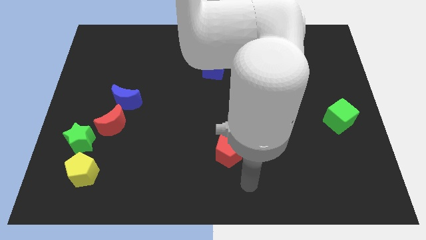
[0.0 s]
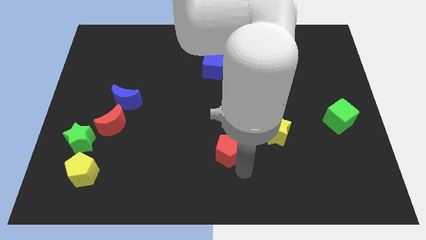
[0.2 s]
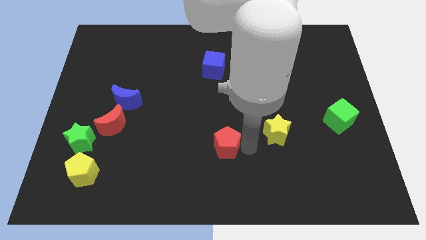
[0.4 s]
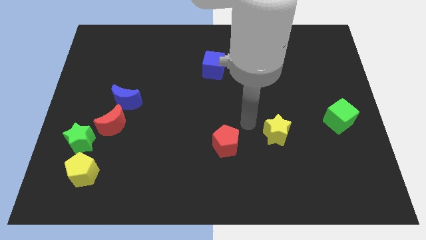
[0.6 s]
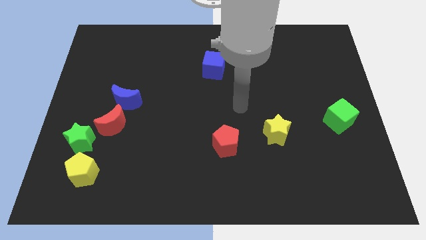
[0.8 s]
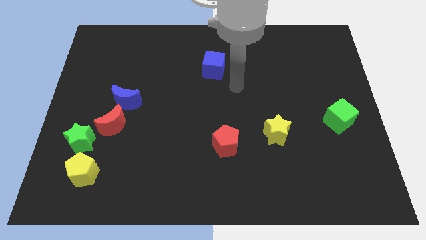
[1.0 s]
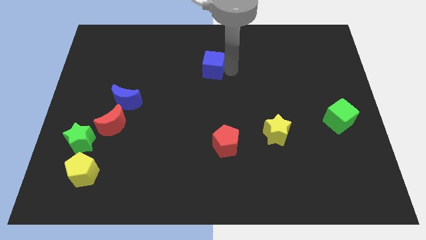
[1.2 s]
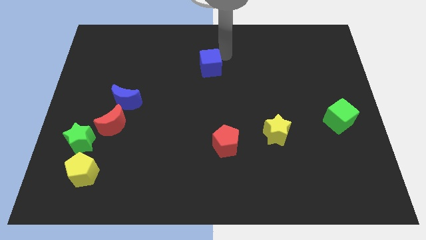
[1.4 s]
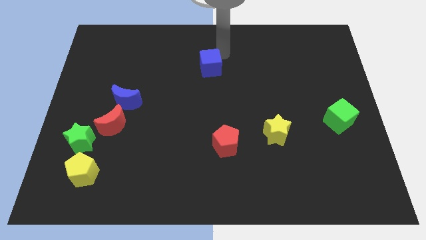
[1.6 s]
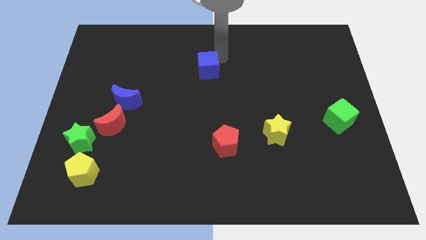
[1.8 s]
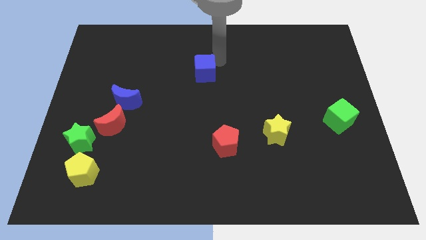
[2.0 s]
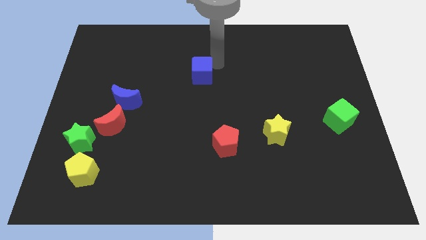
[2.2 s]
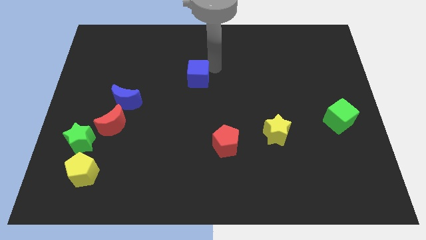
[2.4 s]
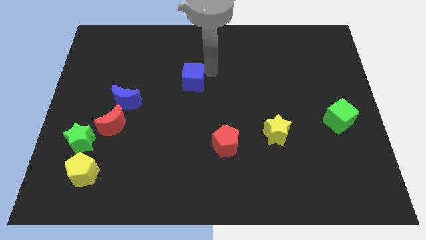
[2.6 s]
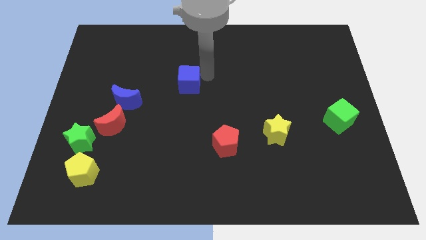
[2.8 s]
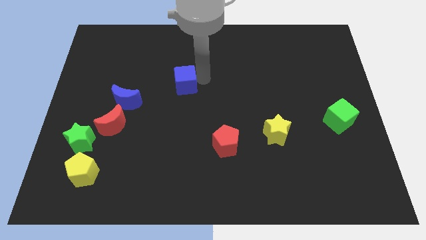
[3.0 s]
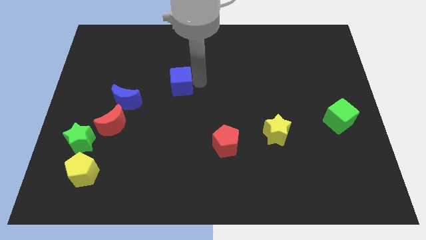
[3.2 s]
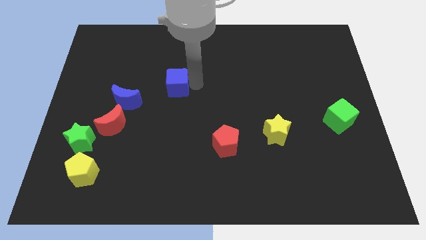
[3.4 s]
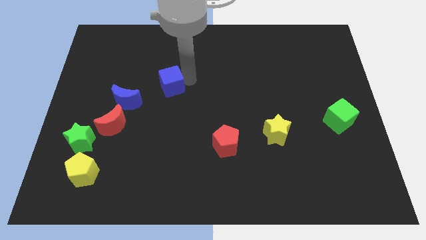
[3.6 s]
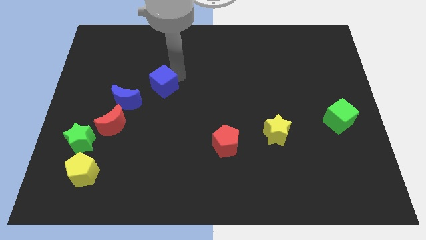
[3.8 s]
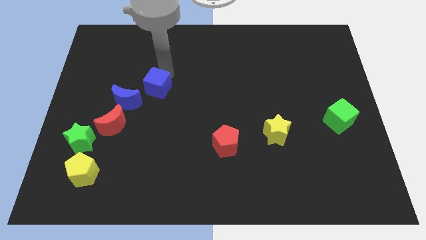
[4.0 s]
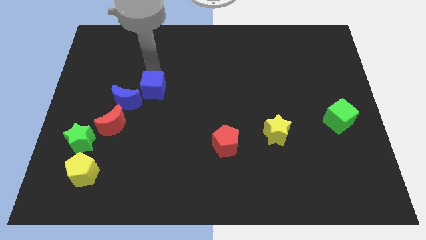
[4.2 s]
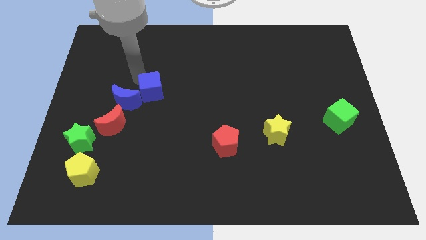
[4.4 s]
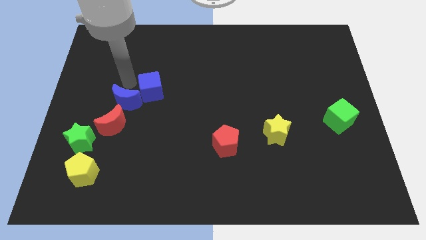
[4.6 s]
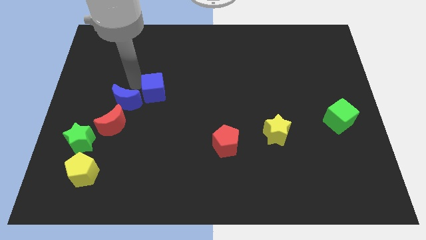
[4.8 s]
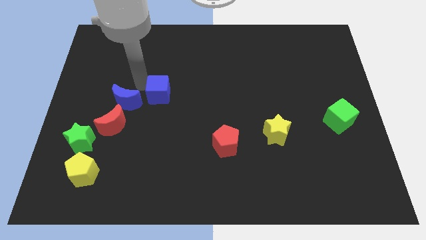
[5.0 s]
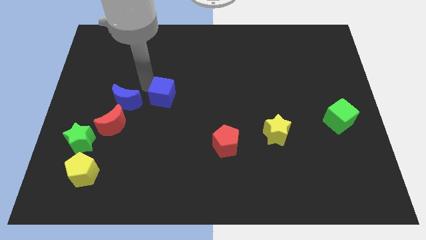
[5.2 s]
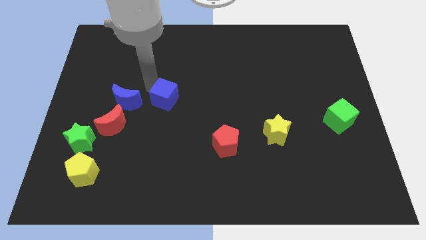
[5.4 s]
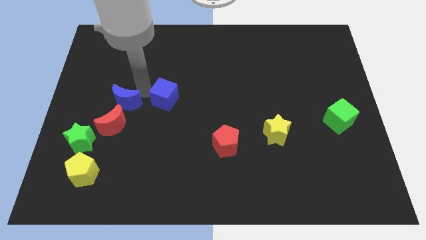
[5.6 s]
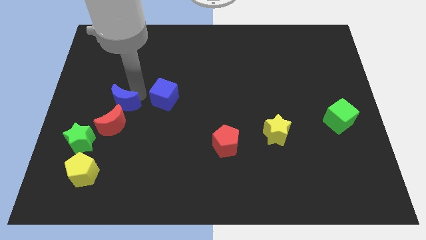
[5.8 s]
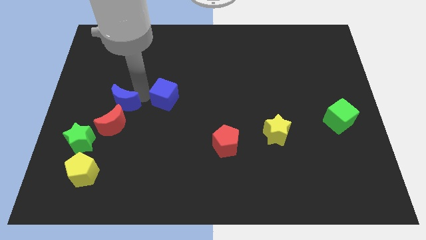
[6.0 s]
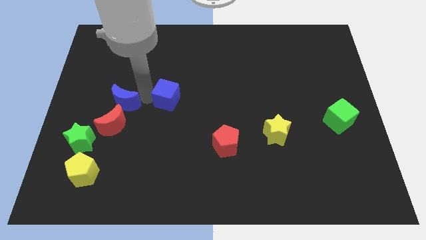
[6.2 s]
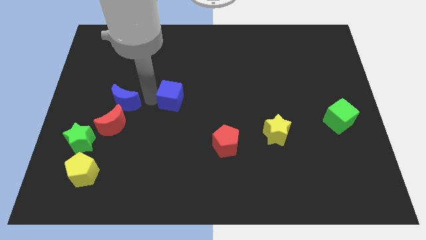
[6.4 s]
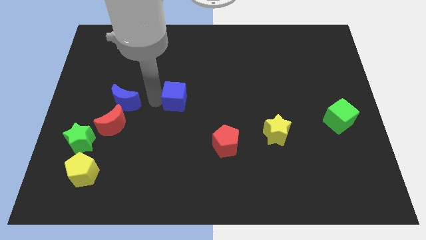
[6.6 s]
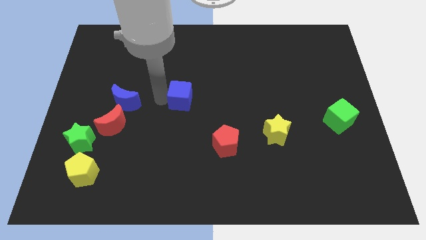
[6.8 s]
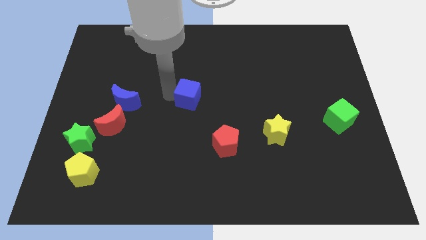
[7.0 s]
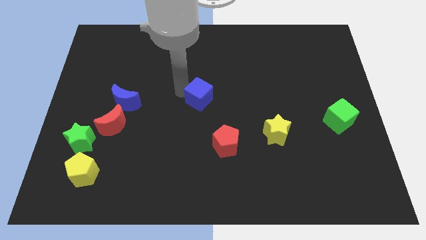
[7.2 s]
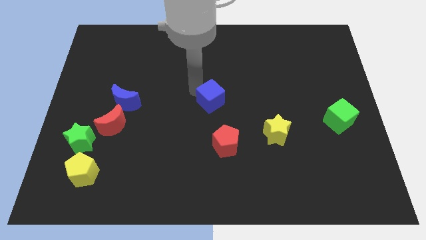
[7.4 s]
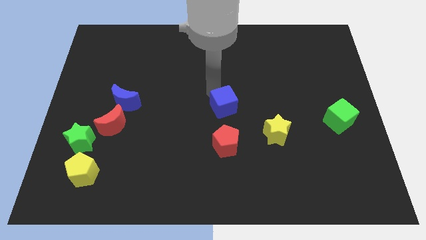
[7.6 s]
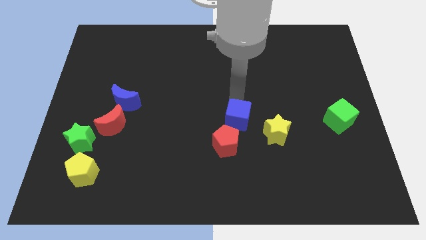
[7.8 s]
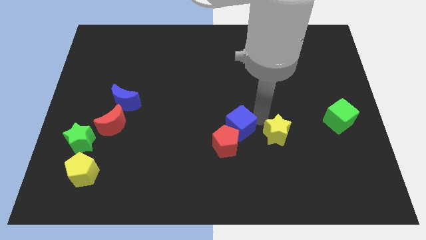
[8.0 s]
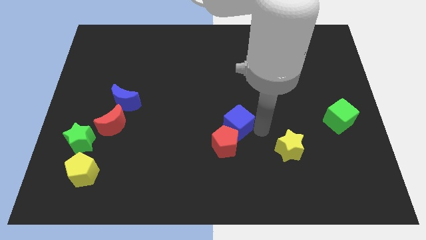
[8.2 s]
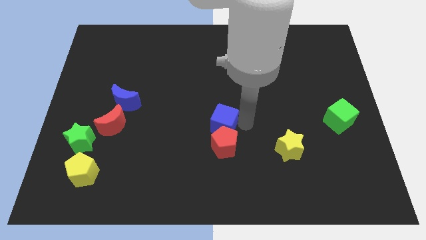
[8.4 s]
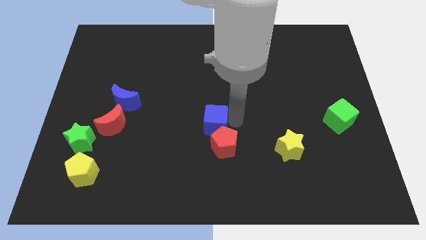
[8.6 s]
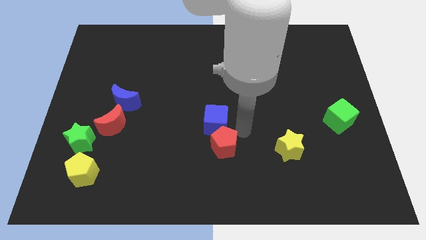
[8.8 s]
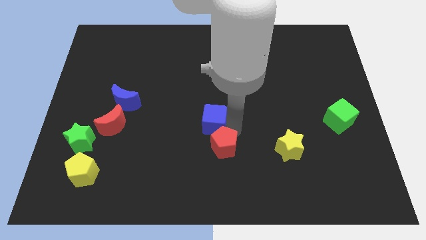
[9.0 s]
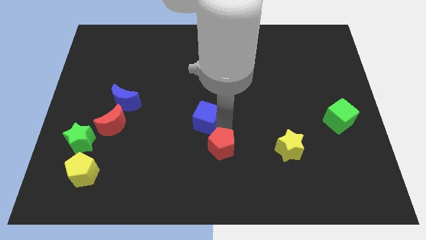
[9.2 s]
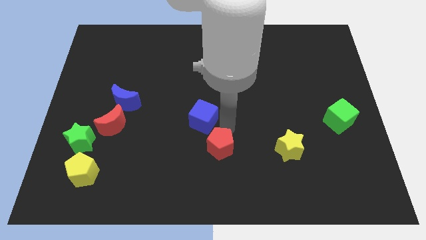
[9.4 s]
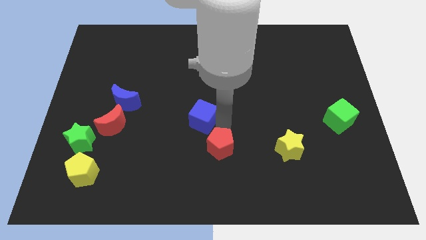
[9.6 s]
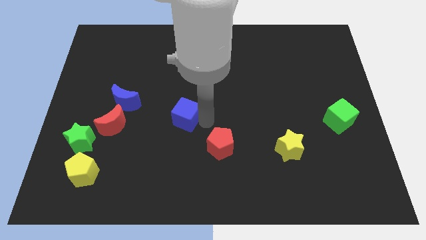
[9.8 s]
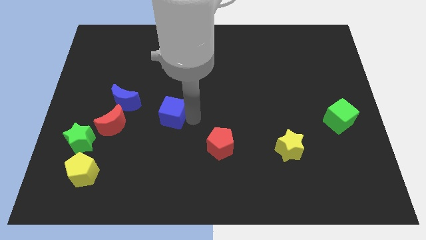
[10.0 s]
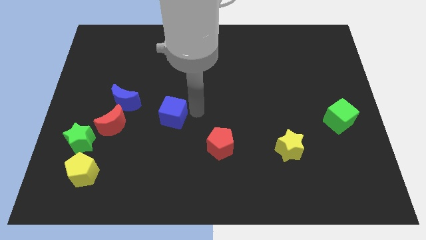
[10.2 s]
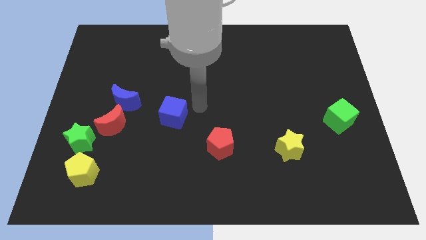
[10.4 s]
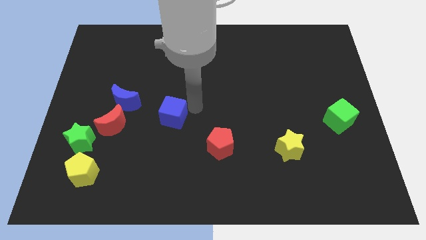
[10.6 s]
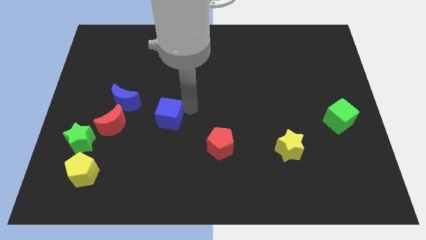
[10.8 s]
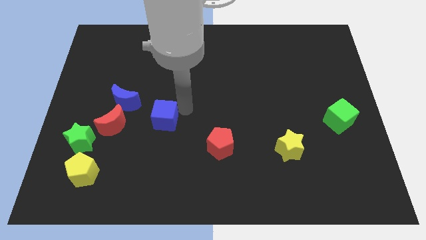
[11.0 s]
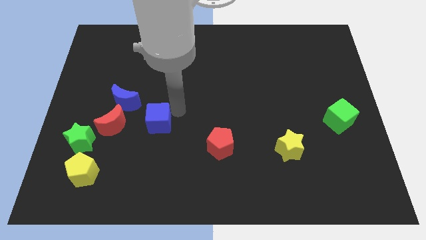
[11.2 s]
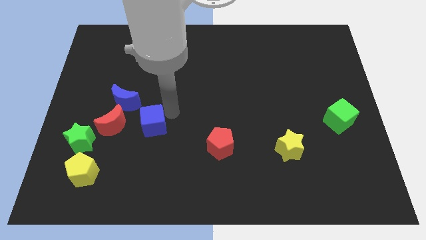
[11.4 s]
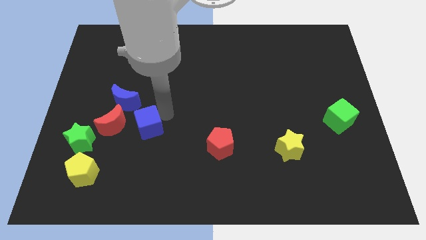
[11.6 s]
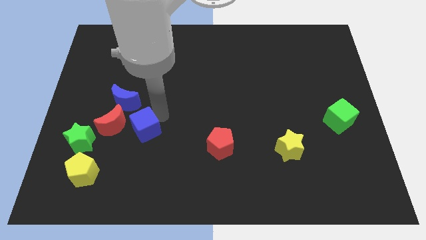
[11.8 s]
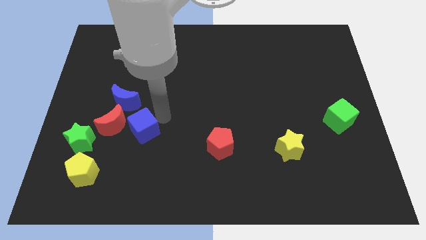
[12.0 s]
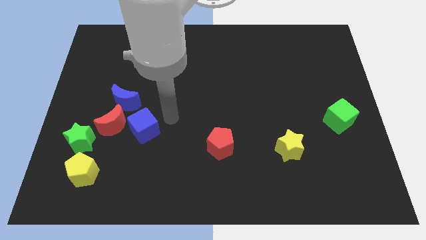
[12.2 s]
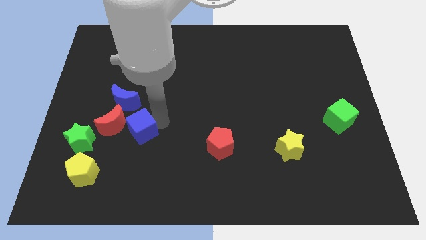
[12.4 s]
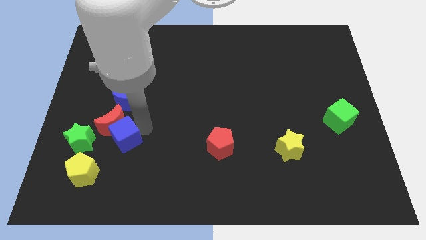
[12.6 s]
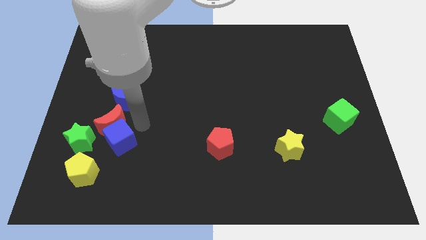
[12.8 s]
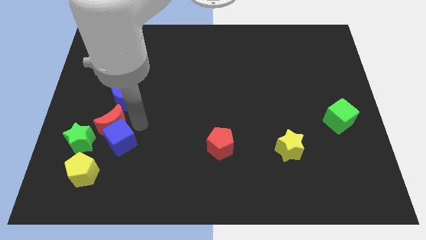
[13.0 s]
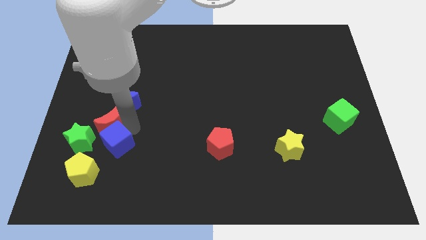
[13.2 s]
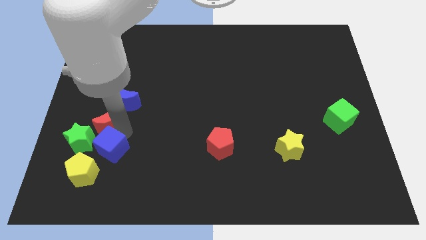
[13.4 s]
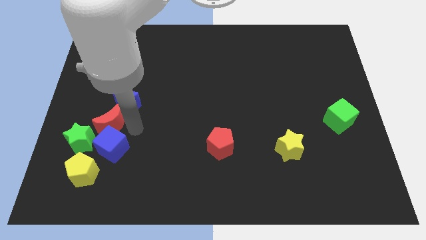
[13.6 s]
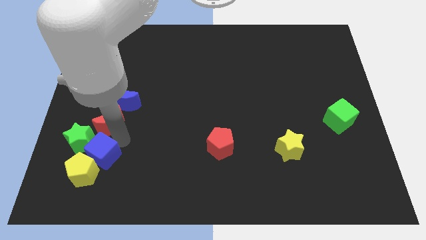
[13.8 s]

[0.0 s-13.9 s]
slide the blue cube to the yellow pentagon
